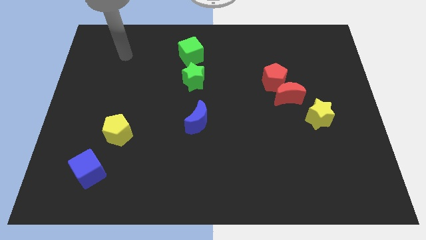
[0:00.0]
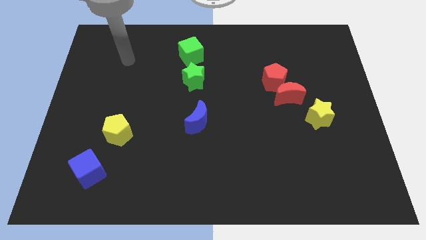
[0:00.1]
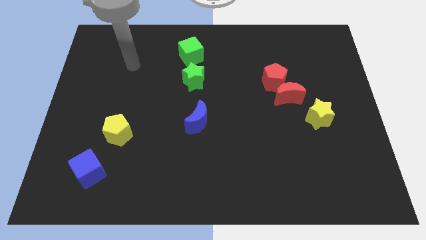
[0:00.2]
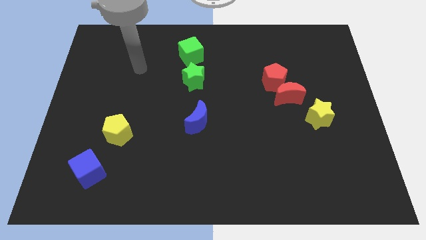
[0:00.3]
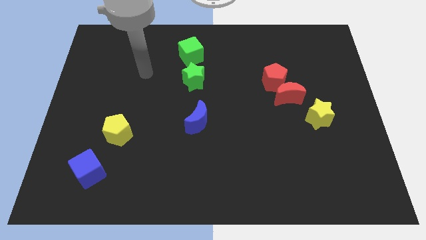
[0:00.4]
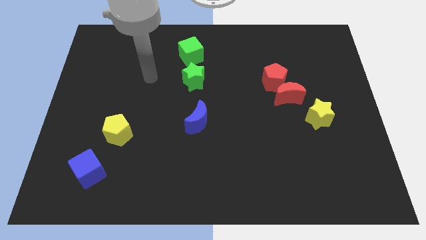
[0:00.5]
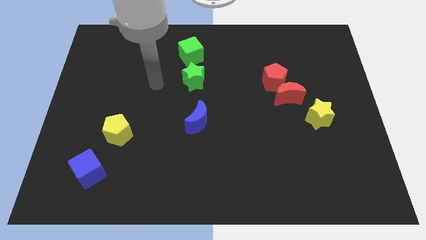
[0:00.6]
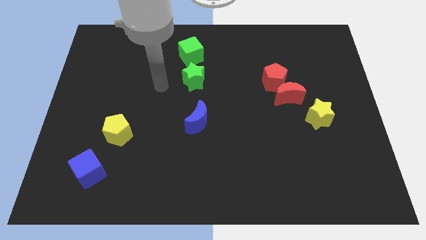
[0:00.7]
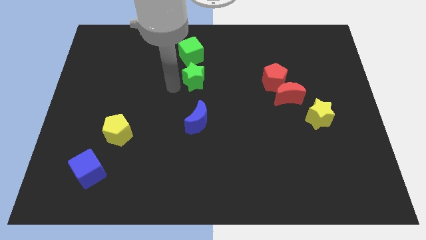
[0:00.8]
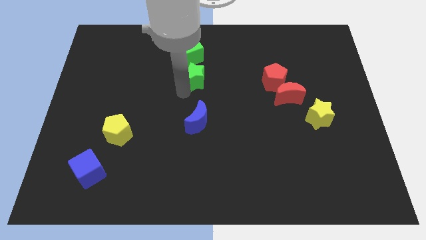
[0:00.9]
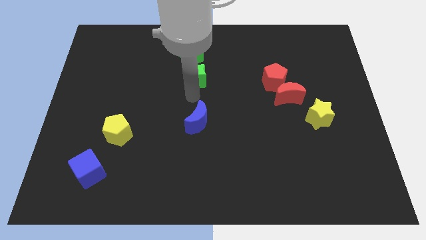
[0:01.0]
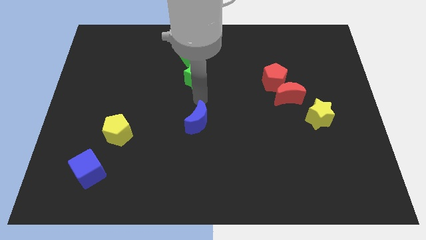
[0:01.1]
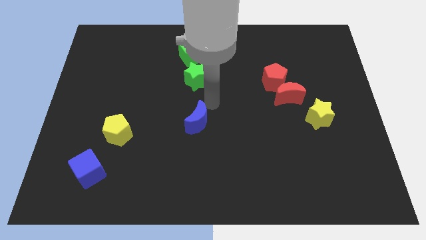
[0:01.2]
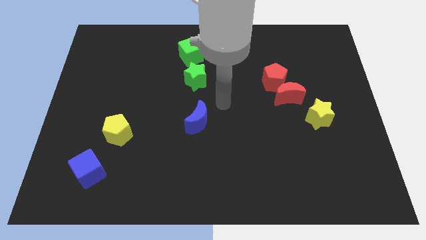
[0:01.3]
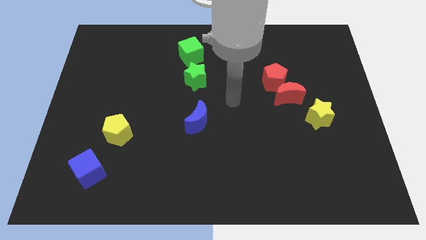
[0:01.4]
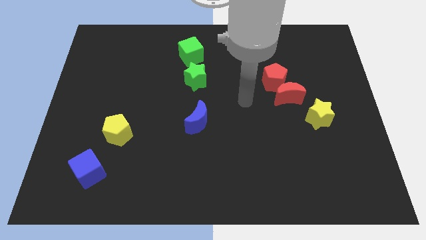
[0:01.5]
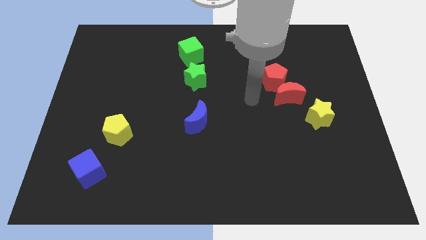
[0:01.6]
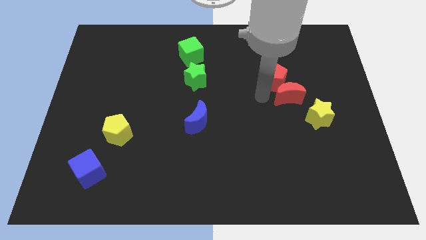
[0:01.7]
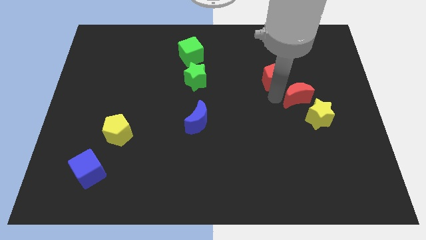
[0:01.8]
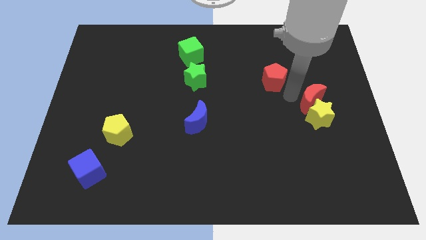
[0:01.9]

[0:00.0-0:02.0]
separate the red pentagon from the red moon

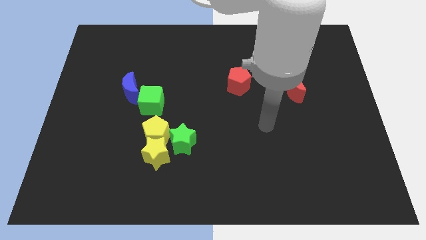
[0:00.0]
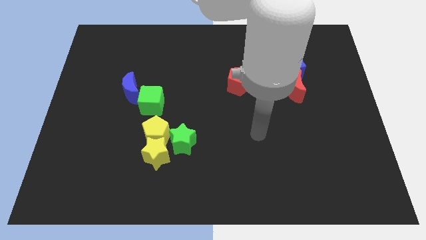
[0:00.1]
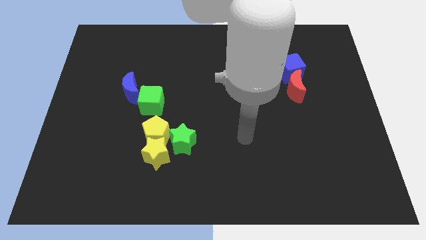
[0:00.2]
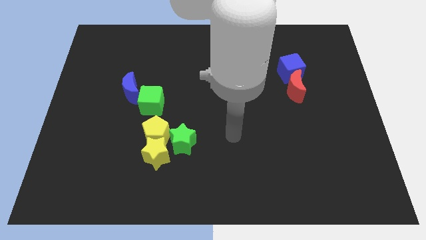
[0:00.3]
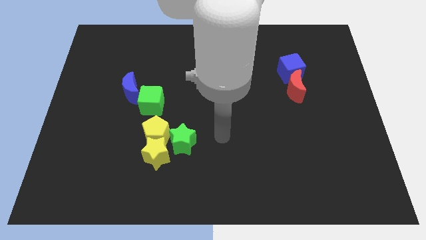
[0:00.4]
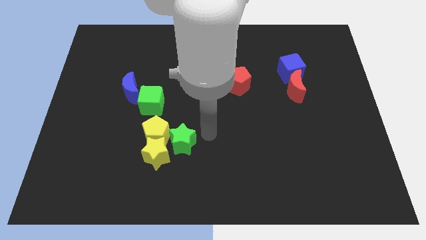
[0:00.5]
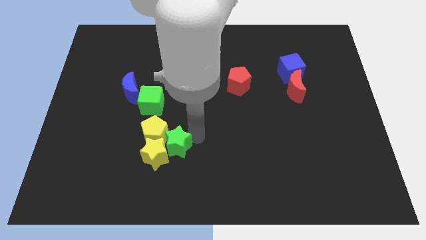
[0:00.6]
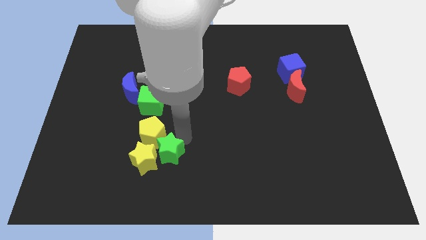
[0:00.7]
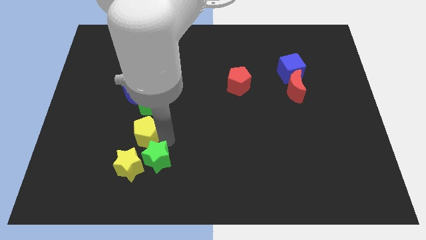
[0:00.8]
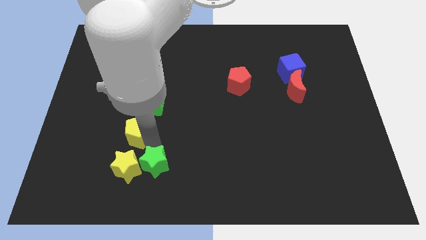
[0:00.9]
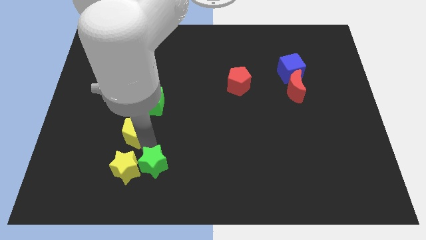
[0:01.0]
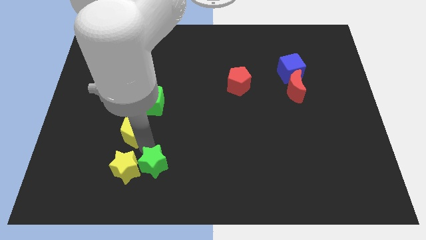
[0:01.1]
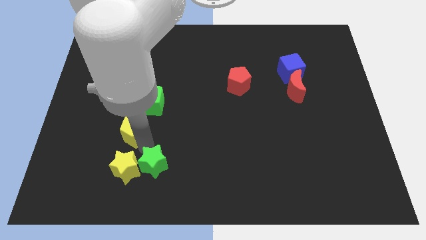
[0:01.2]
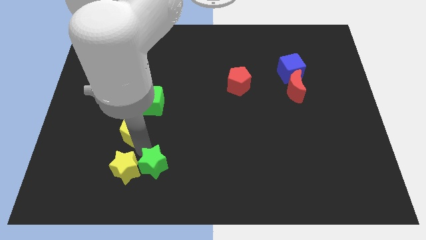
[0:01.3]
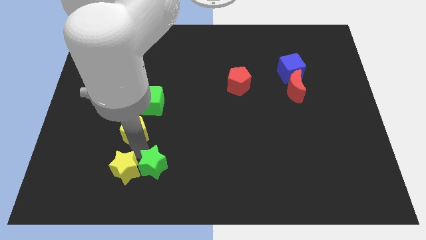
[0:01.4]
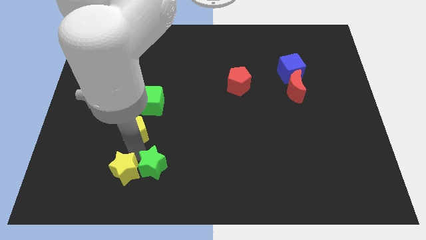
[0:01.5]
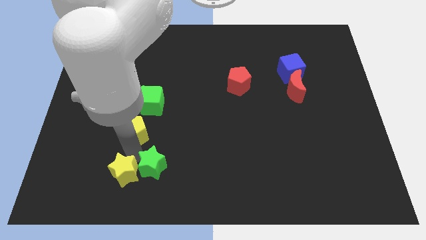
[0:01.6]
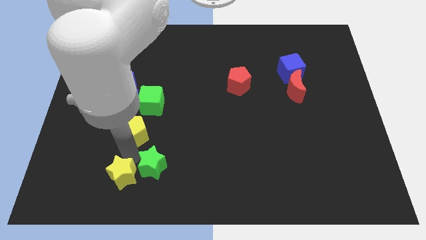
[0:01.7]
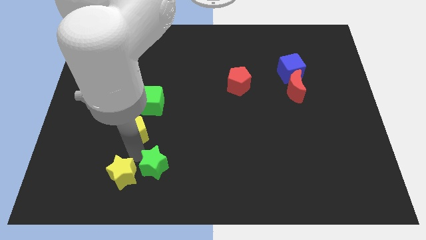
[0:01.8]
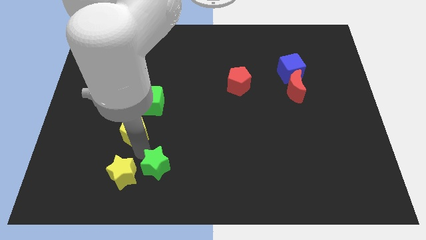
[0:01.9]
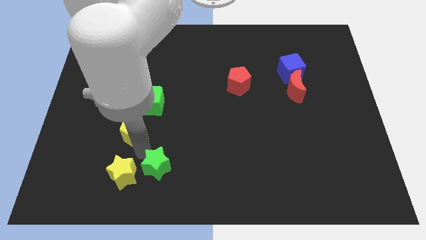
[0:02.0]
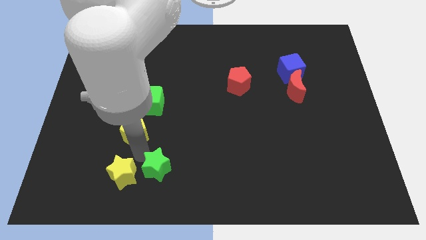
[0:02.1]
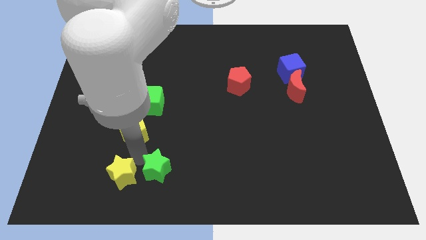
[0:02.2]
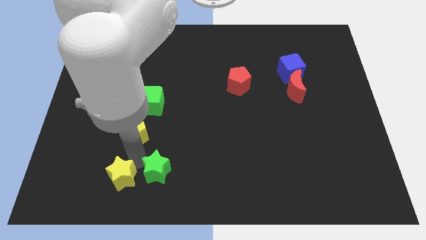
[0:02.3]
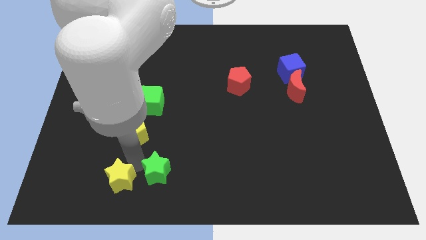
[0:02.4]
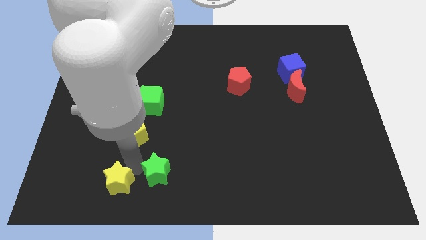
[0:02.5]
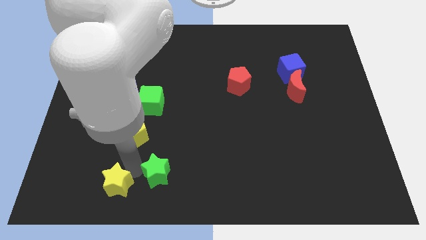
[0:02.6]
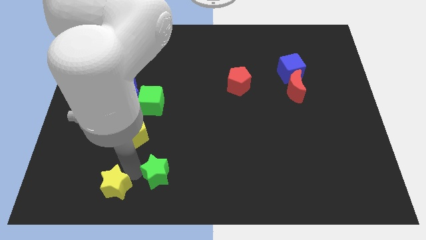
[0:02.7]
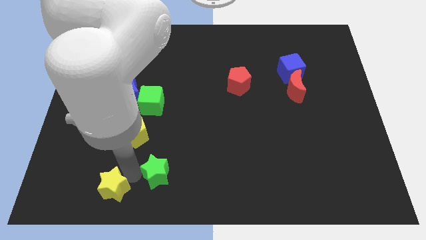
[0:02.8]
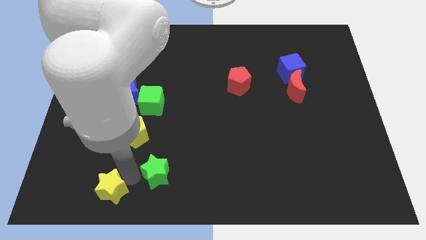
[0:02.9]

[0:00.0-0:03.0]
separate the yellow star from the yellow pentagon and green star

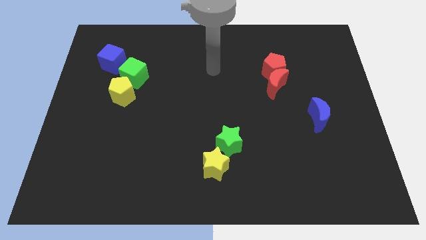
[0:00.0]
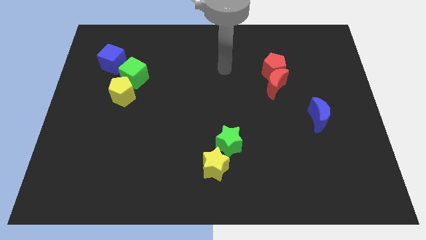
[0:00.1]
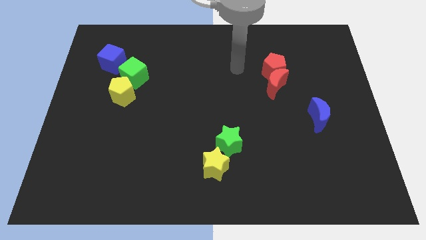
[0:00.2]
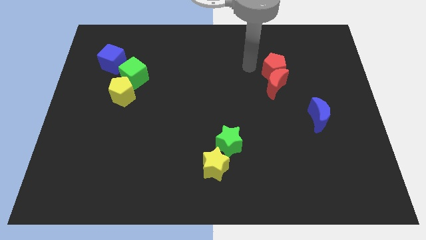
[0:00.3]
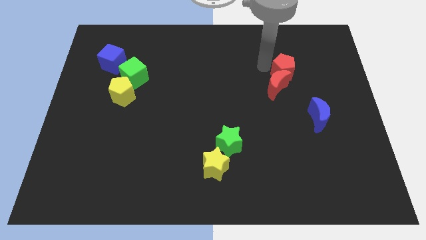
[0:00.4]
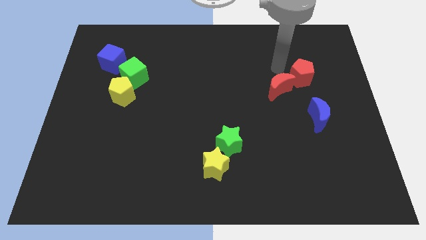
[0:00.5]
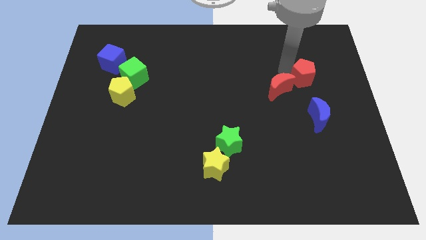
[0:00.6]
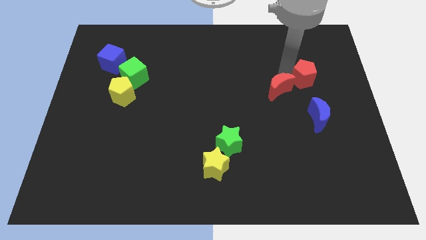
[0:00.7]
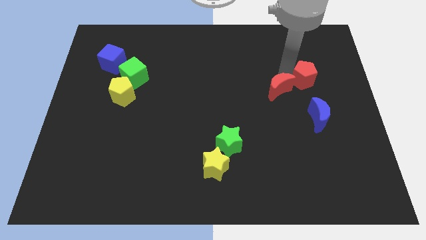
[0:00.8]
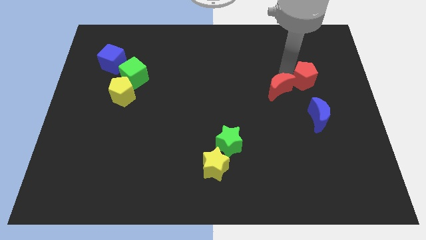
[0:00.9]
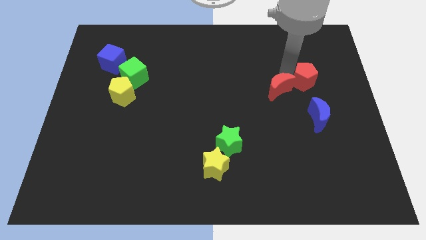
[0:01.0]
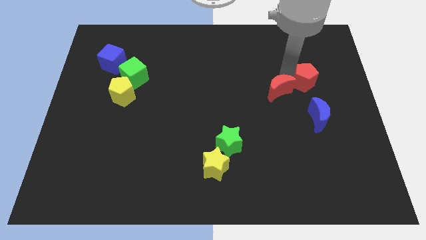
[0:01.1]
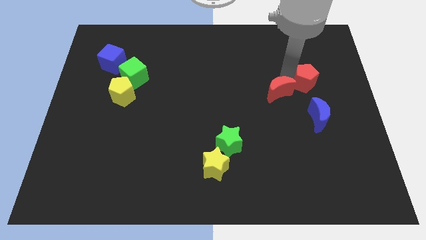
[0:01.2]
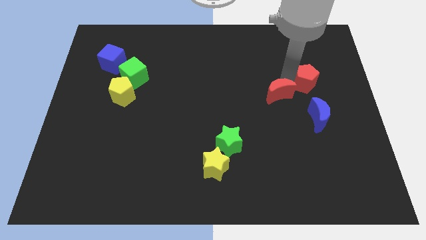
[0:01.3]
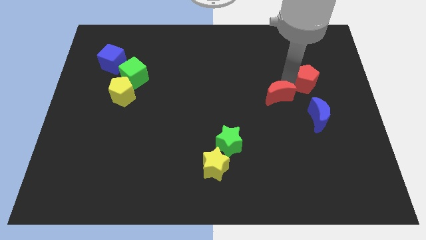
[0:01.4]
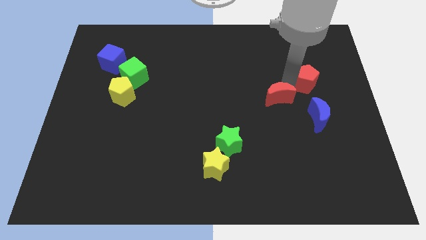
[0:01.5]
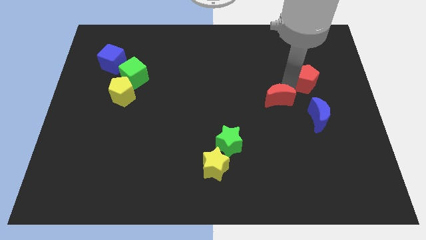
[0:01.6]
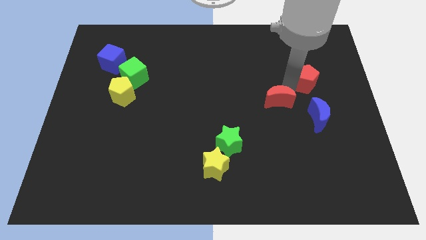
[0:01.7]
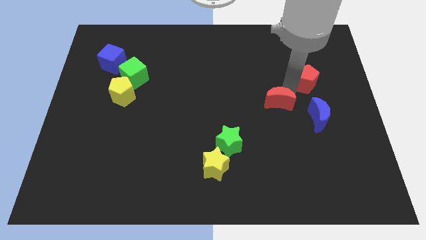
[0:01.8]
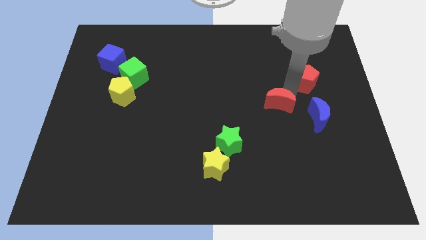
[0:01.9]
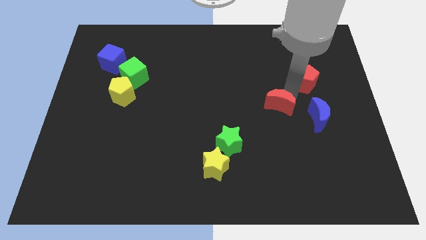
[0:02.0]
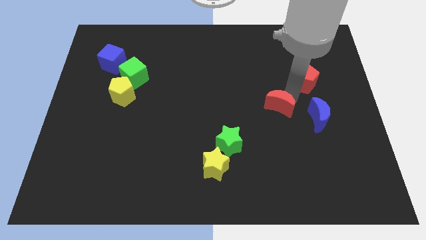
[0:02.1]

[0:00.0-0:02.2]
separate the red moon from the red pentagon

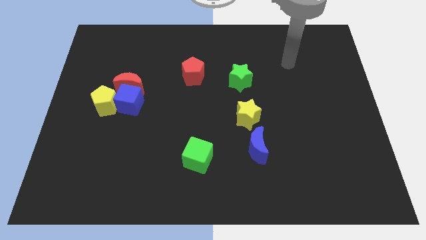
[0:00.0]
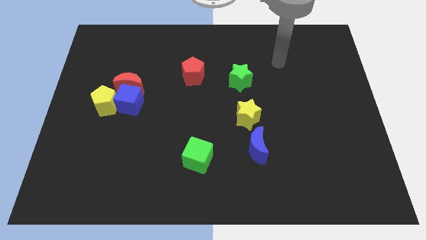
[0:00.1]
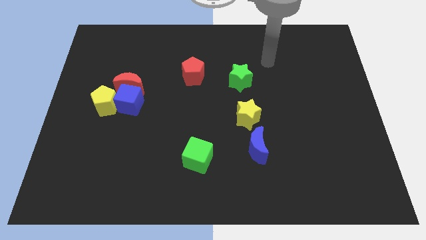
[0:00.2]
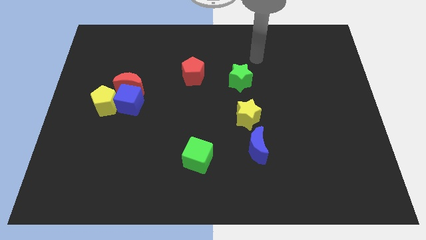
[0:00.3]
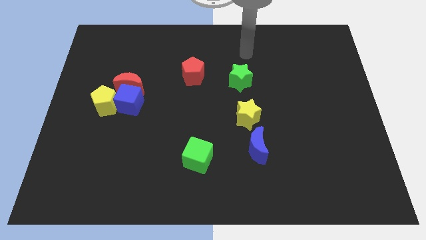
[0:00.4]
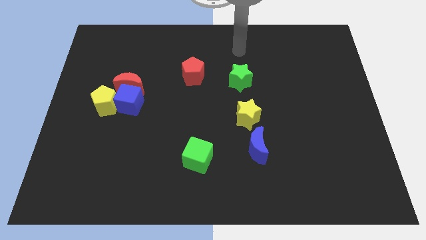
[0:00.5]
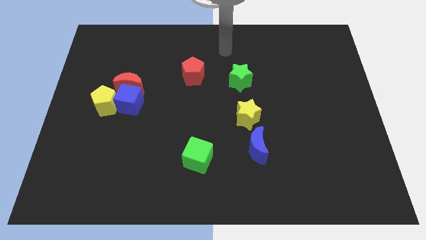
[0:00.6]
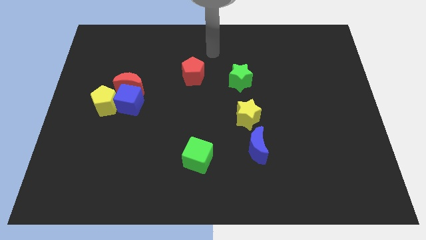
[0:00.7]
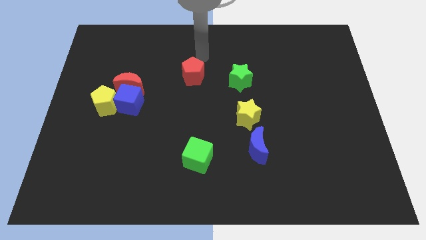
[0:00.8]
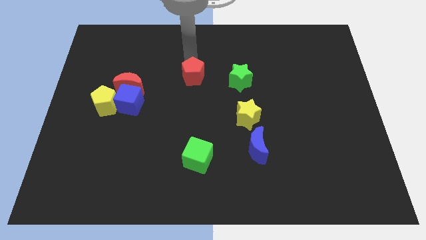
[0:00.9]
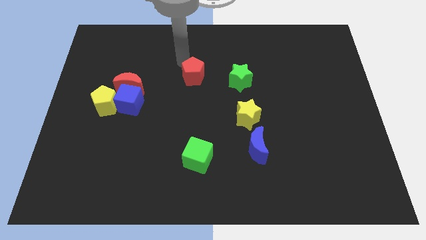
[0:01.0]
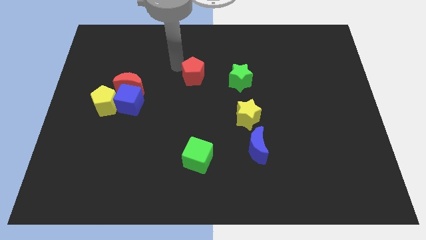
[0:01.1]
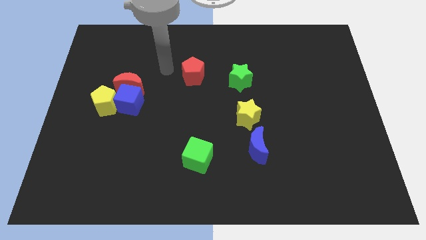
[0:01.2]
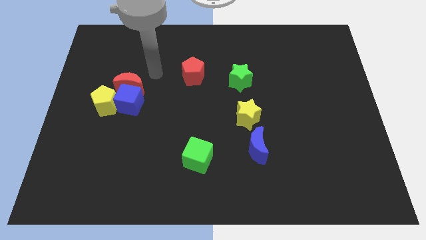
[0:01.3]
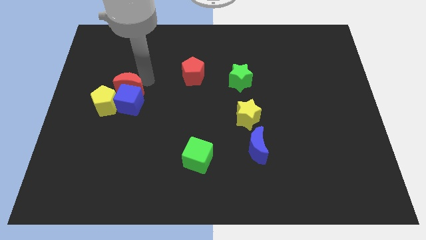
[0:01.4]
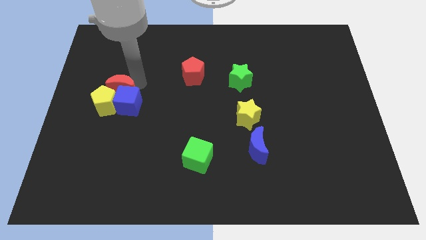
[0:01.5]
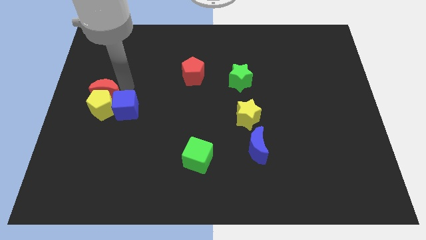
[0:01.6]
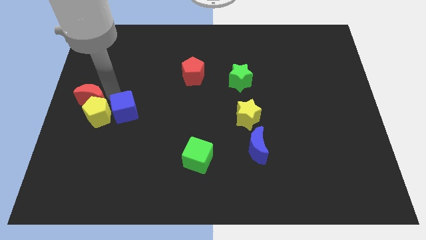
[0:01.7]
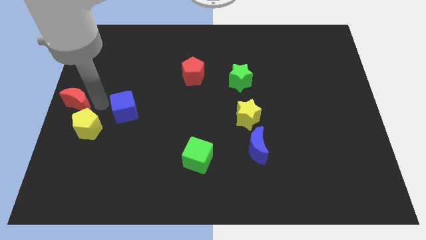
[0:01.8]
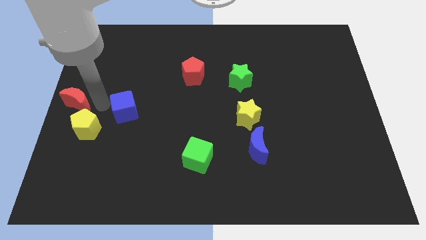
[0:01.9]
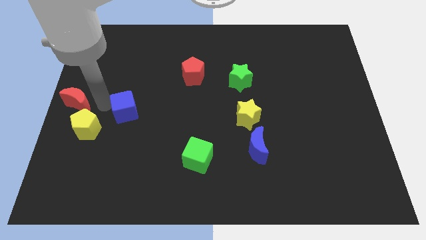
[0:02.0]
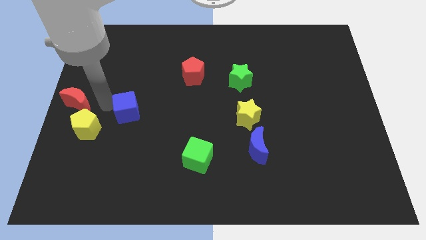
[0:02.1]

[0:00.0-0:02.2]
pull the blue cube apart from the red moon and yellow pentagon
